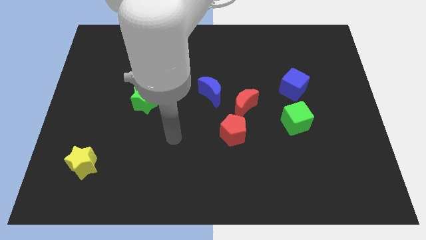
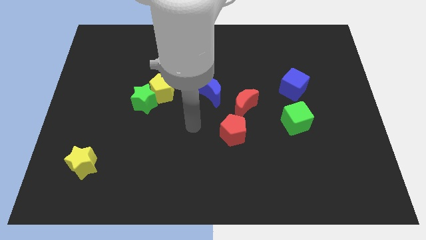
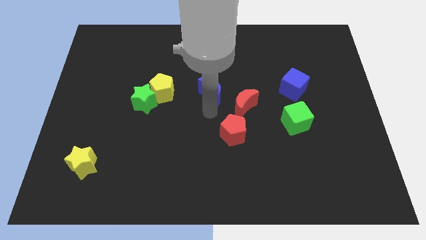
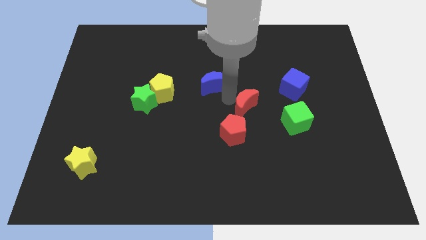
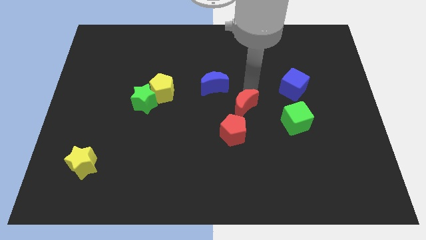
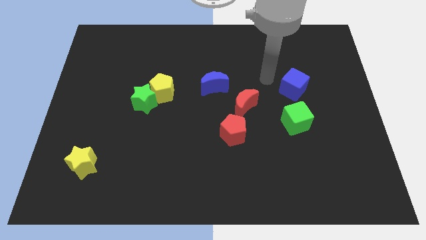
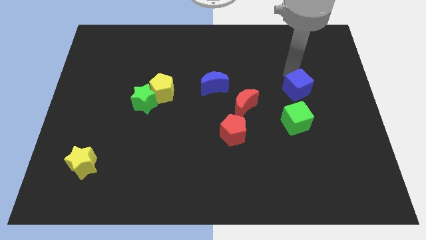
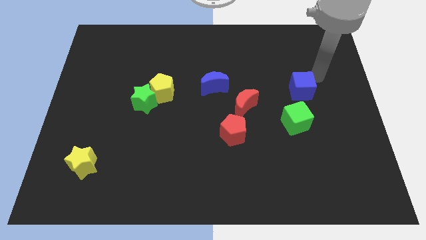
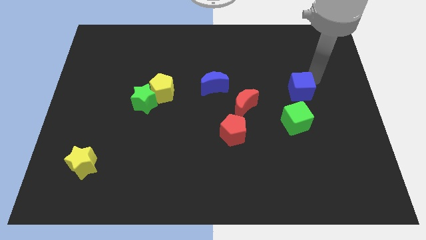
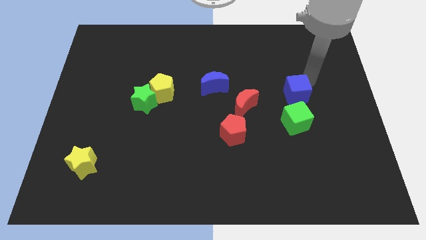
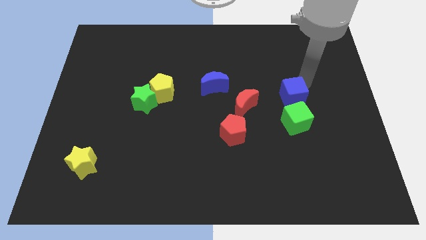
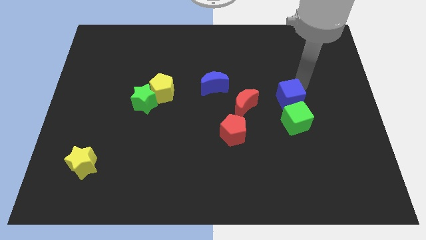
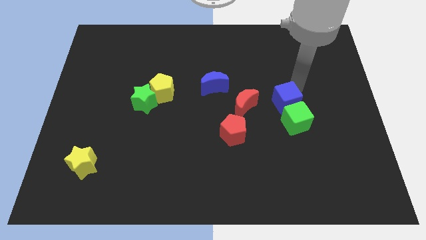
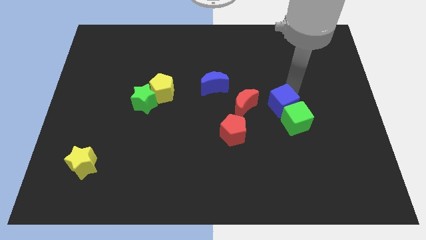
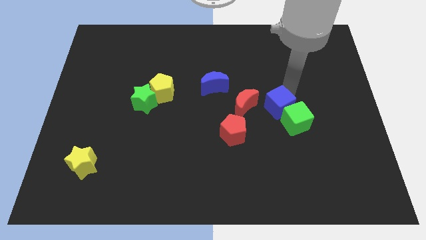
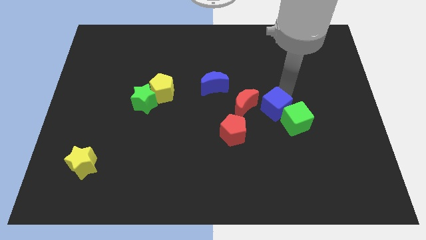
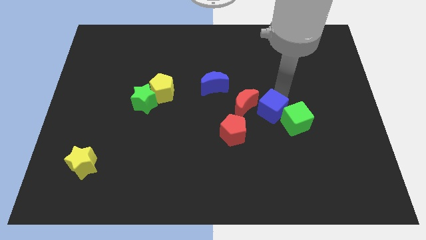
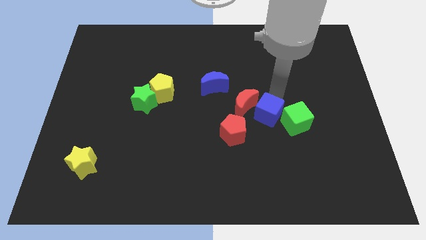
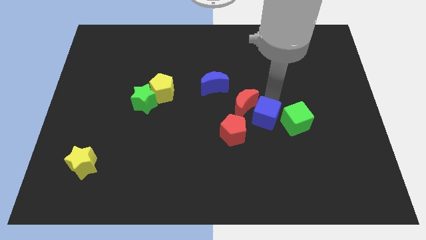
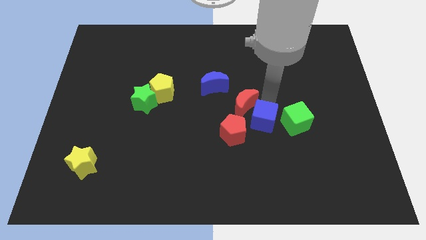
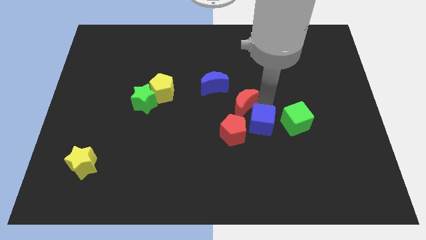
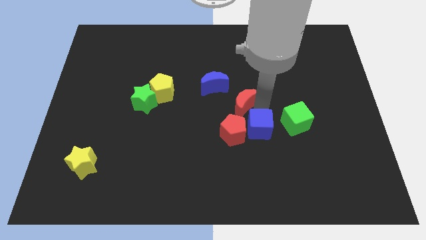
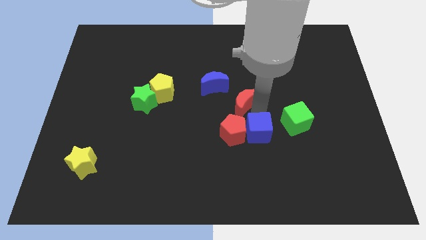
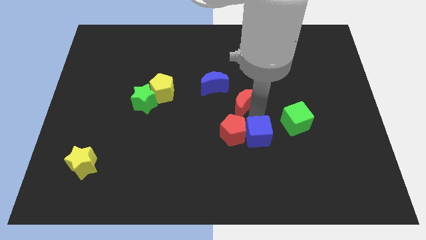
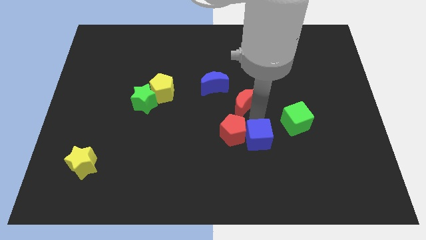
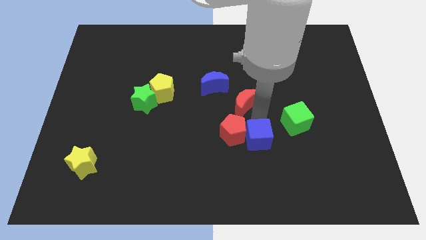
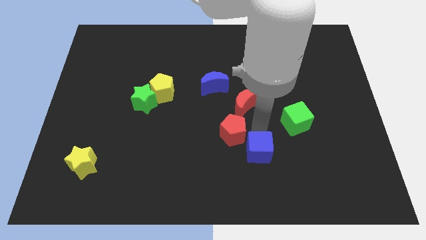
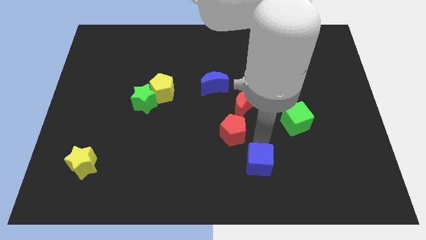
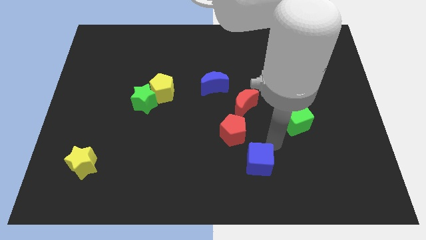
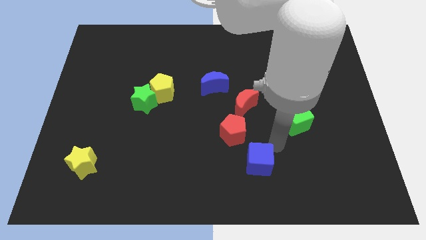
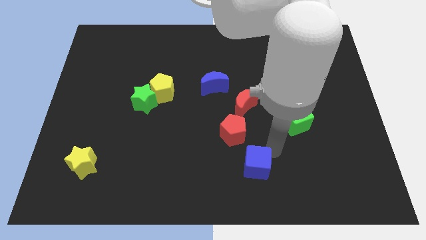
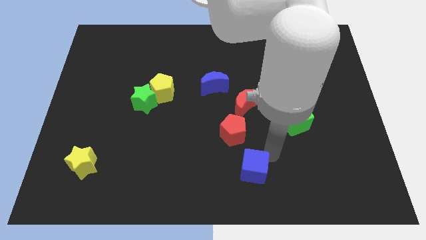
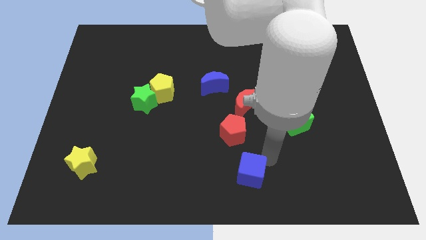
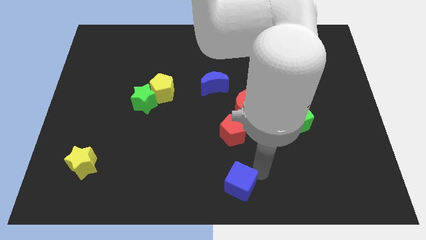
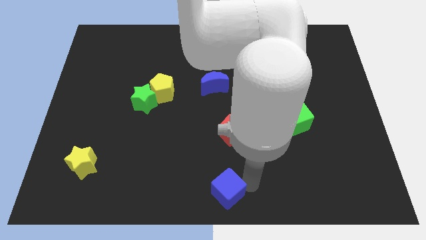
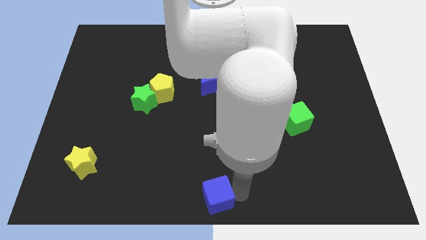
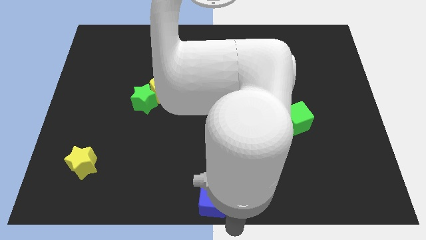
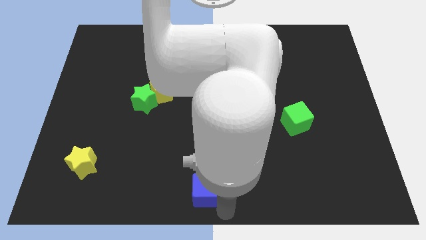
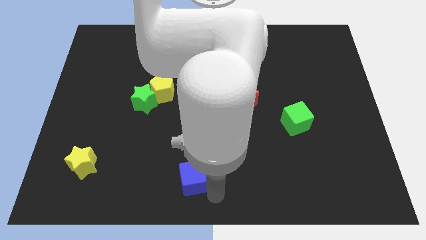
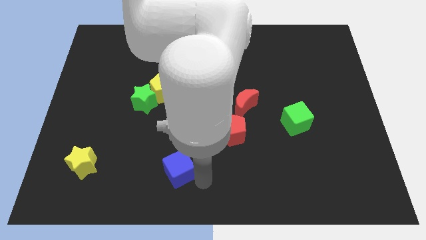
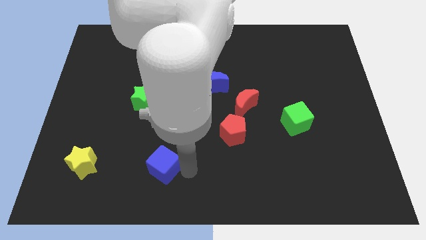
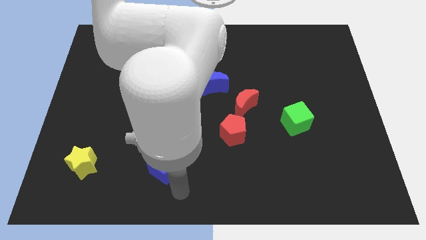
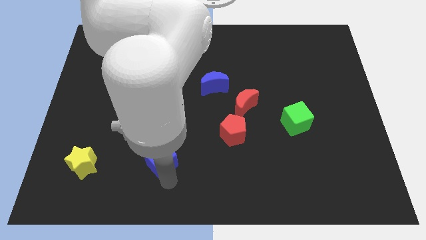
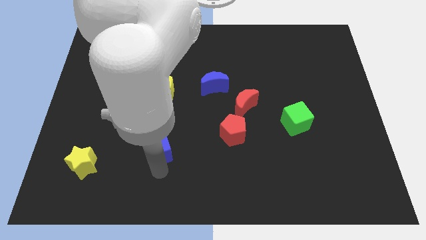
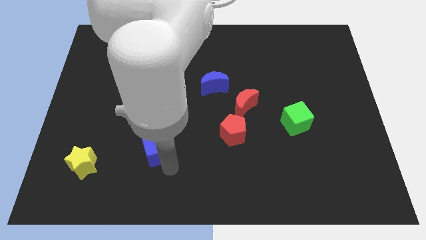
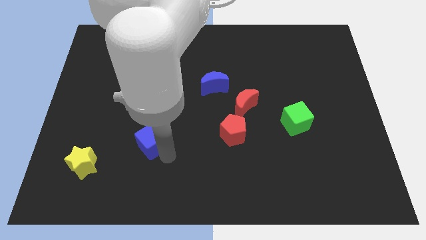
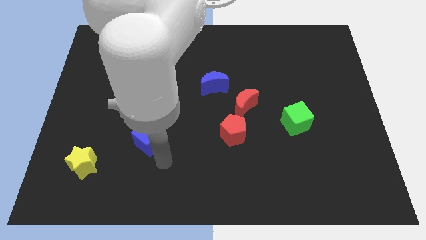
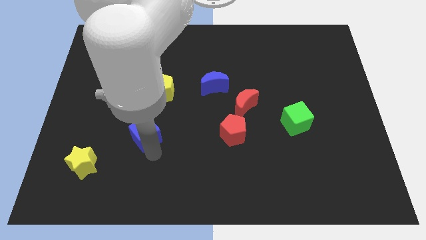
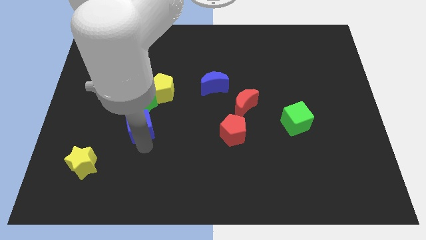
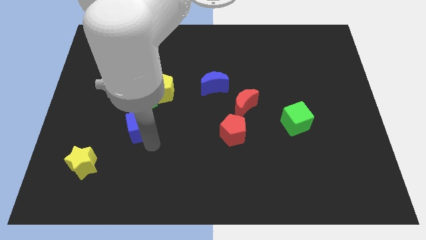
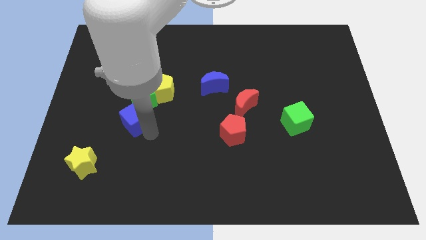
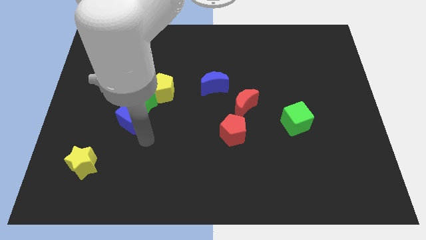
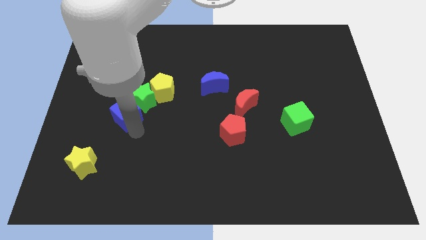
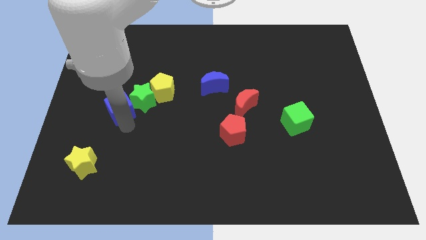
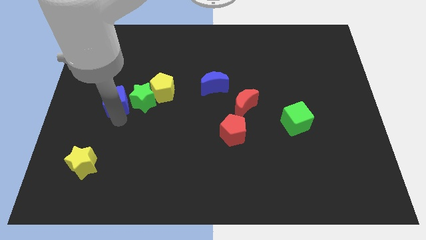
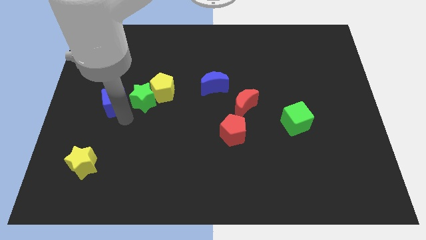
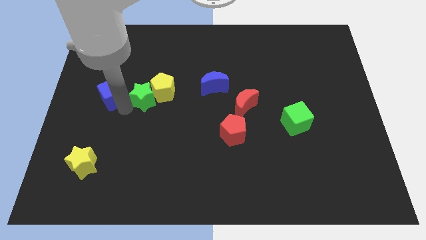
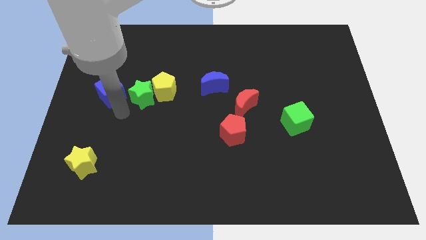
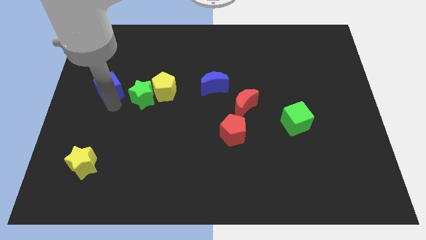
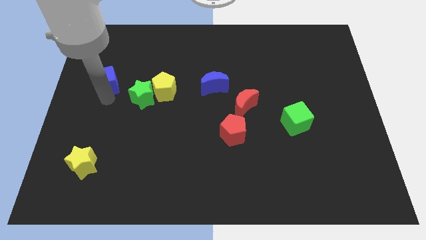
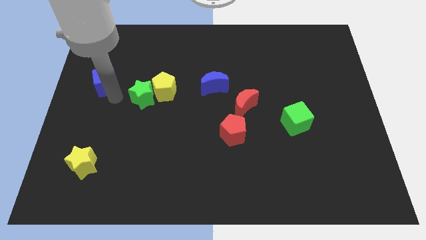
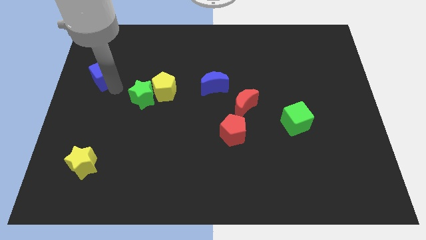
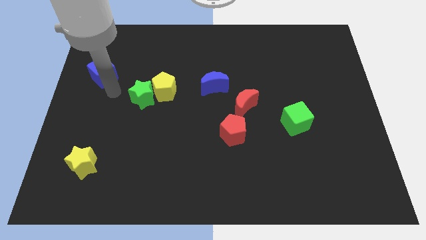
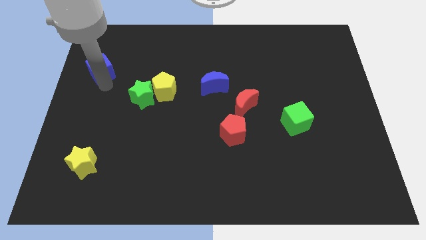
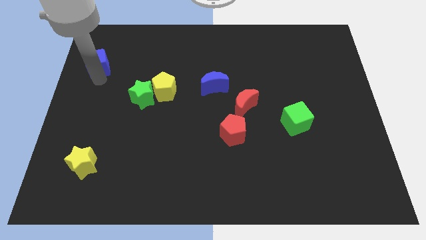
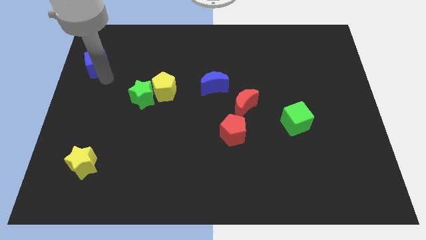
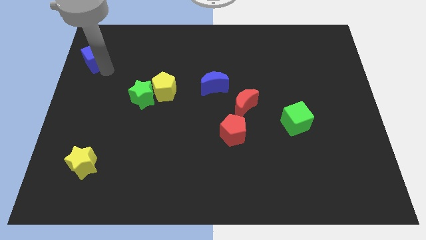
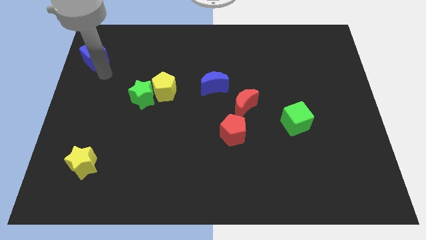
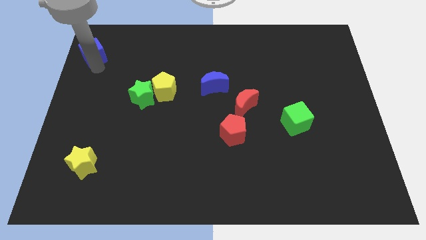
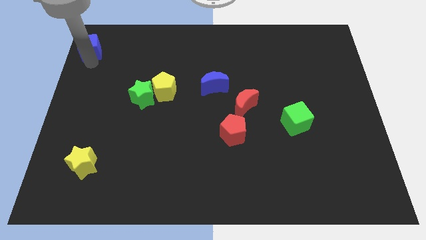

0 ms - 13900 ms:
push the blue cube to the top left of the board
